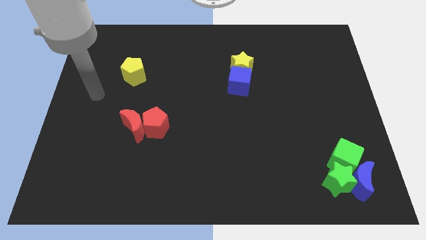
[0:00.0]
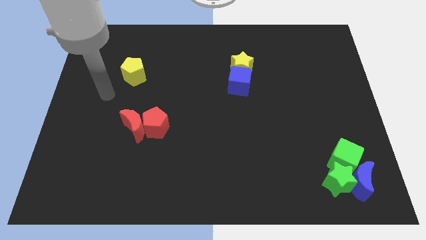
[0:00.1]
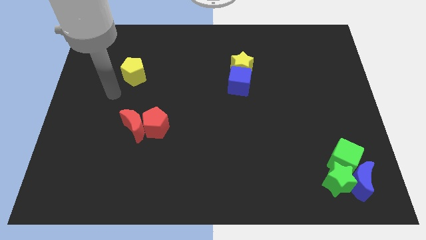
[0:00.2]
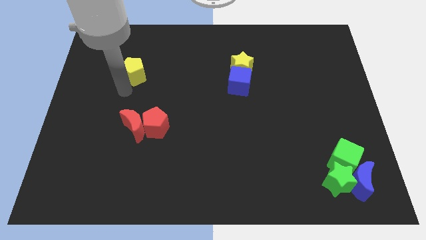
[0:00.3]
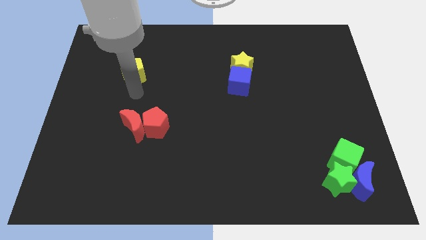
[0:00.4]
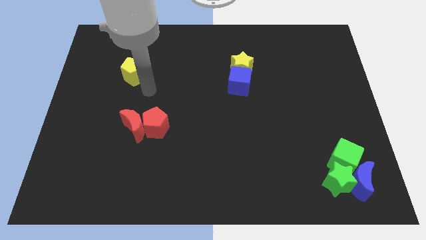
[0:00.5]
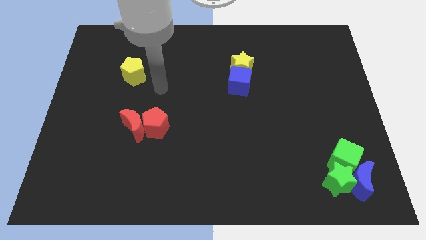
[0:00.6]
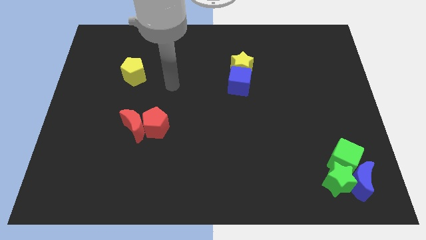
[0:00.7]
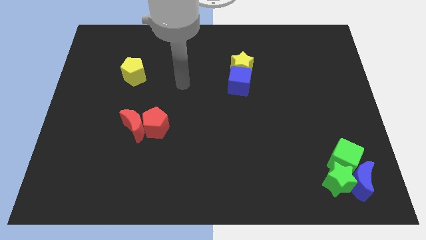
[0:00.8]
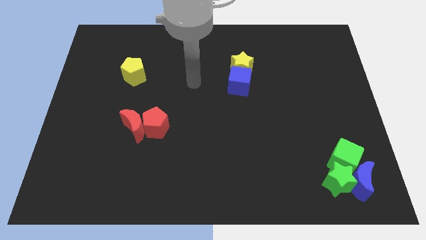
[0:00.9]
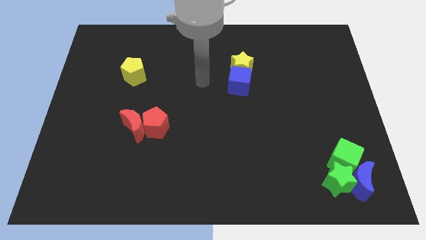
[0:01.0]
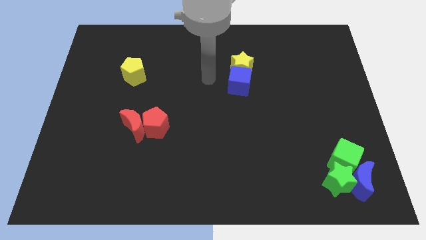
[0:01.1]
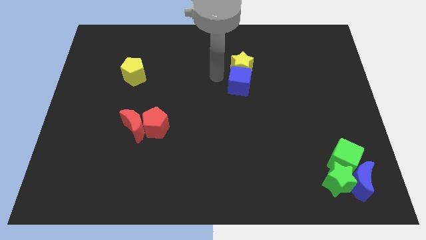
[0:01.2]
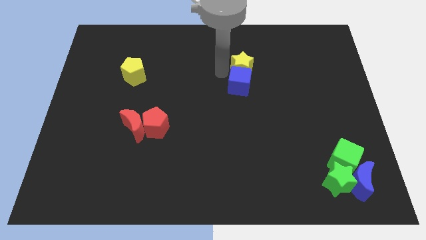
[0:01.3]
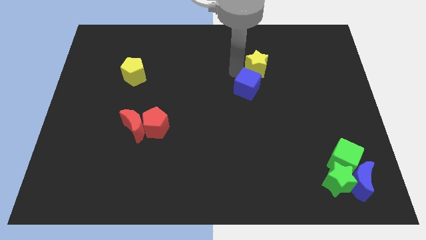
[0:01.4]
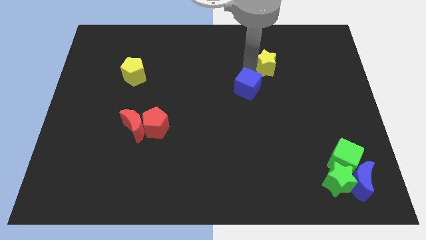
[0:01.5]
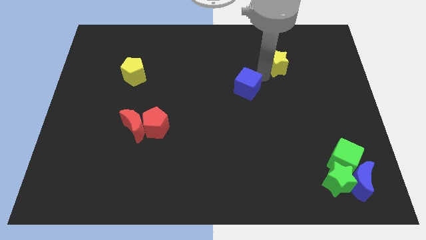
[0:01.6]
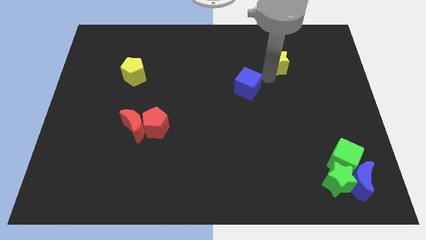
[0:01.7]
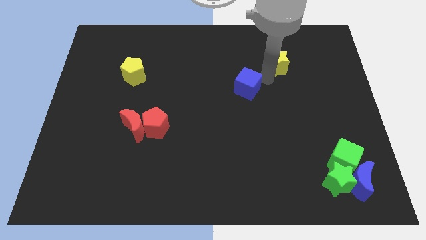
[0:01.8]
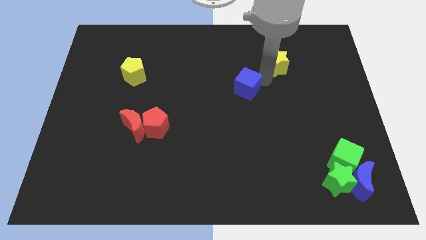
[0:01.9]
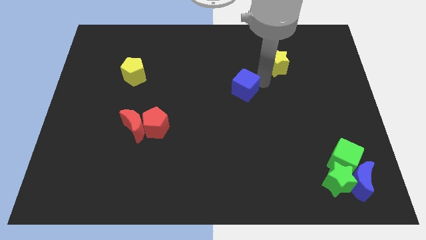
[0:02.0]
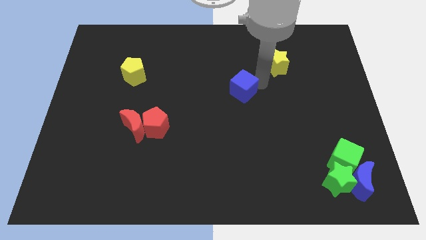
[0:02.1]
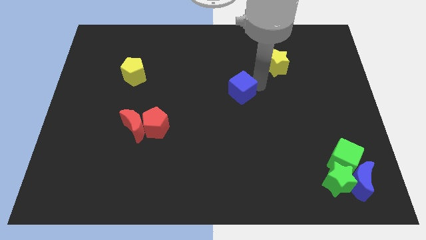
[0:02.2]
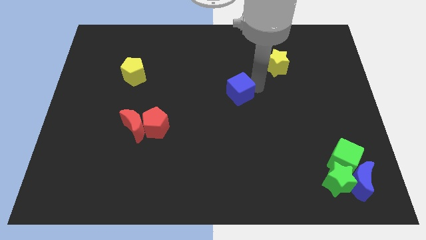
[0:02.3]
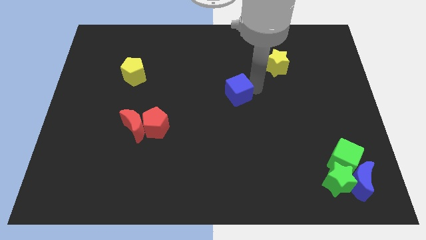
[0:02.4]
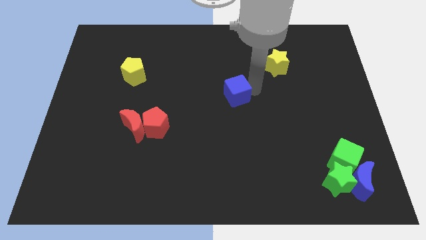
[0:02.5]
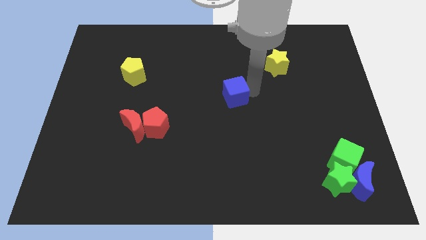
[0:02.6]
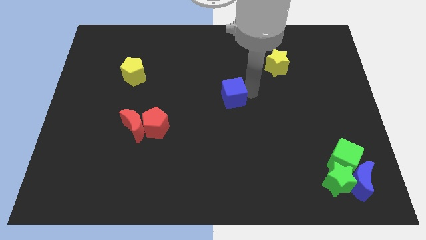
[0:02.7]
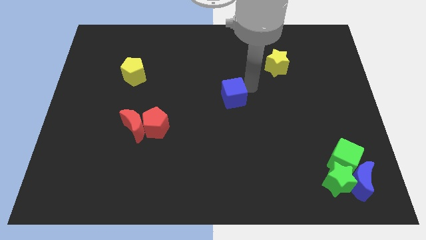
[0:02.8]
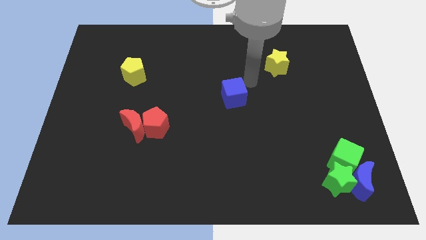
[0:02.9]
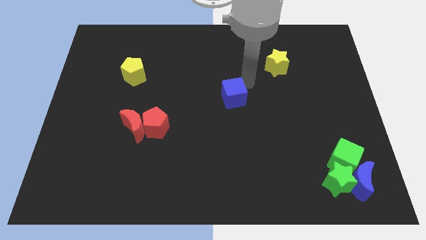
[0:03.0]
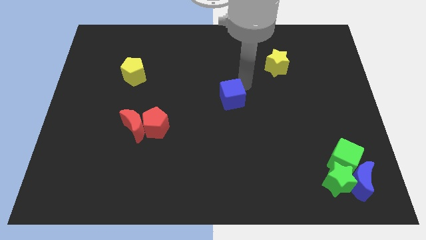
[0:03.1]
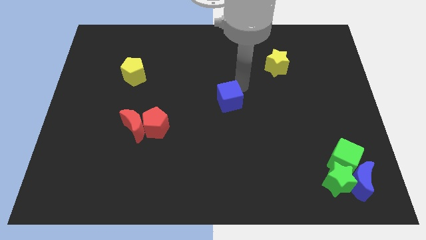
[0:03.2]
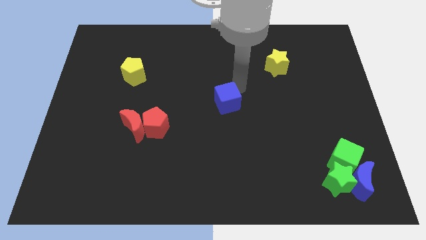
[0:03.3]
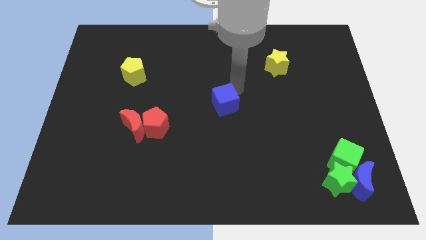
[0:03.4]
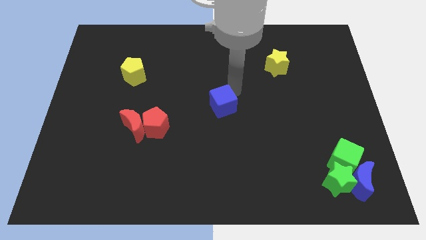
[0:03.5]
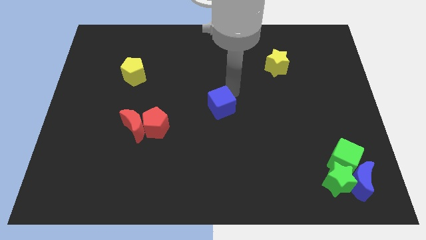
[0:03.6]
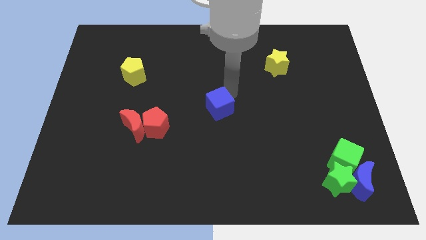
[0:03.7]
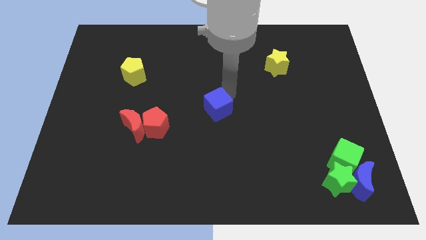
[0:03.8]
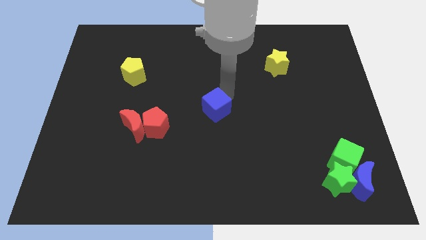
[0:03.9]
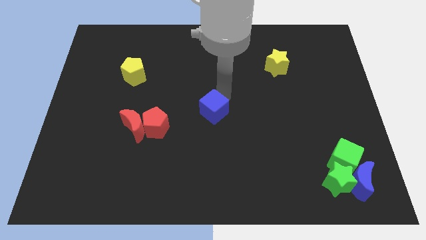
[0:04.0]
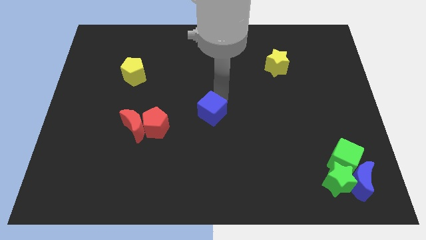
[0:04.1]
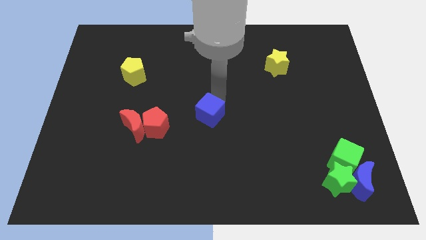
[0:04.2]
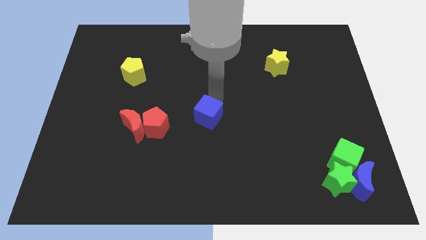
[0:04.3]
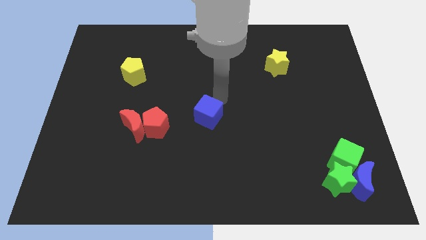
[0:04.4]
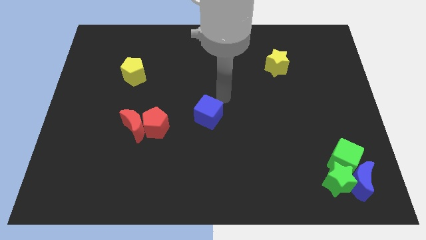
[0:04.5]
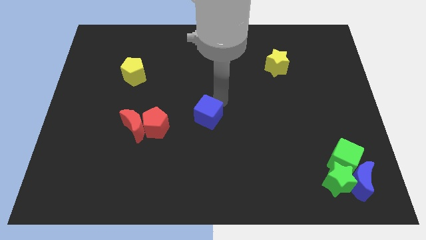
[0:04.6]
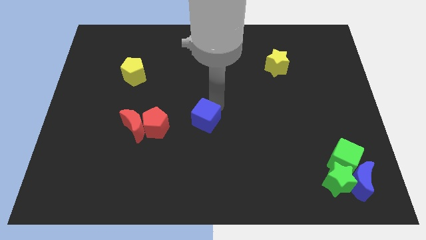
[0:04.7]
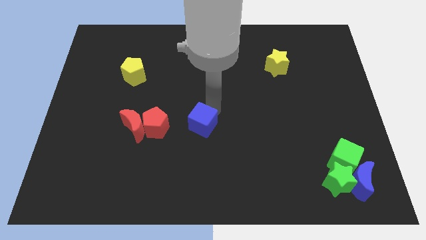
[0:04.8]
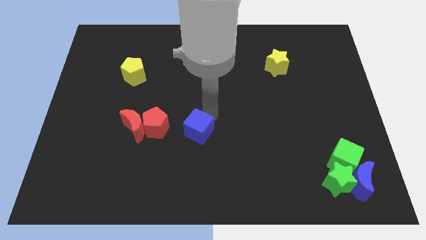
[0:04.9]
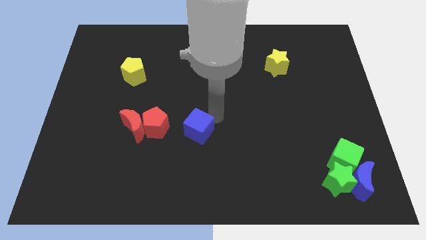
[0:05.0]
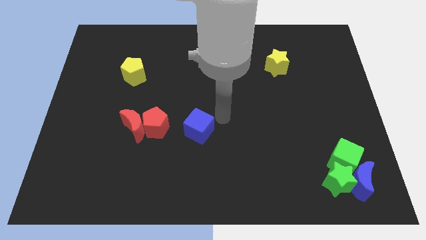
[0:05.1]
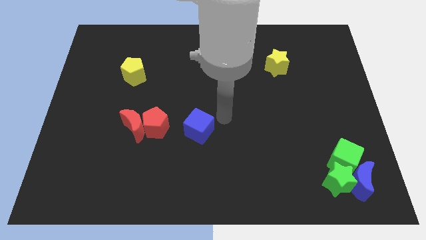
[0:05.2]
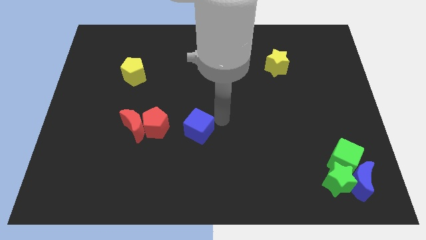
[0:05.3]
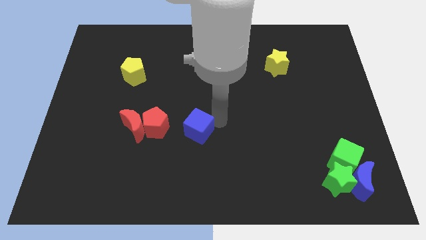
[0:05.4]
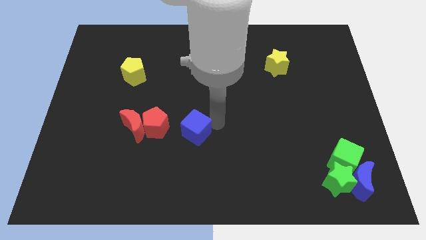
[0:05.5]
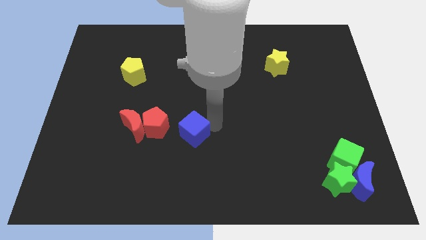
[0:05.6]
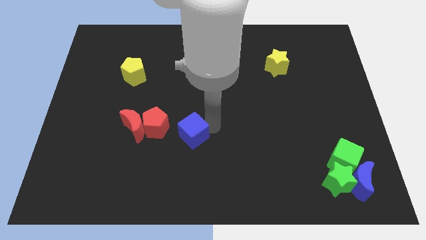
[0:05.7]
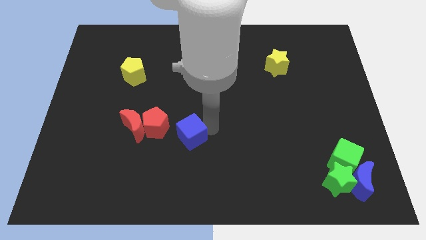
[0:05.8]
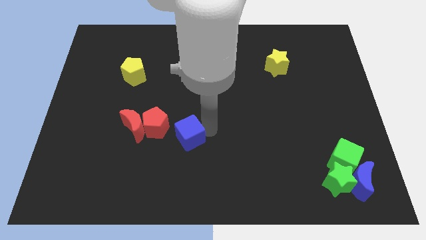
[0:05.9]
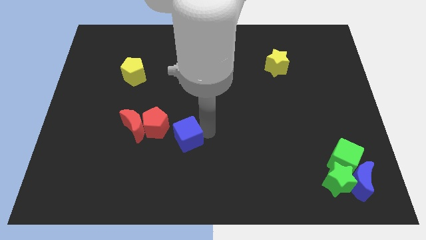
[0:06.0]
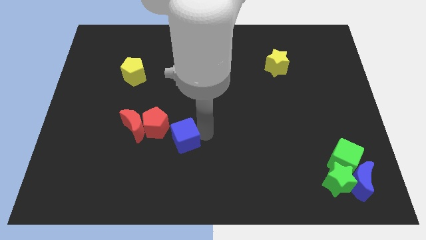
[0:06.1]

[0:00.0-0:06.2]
move the blue cube downwards and left diagonally

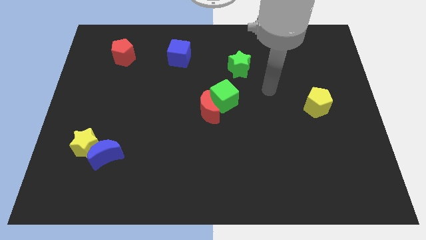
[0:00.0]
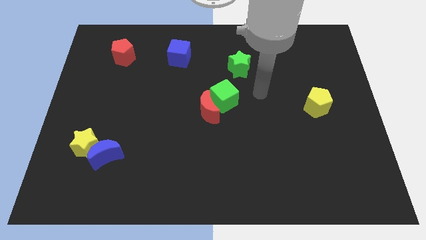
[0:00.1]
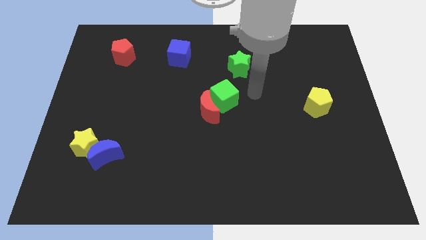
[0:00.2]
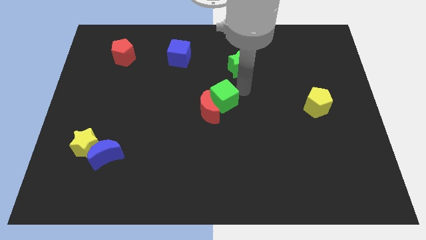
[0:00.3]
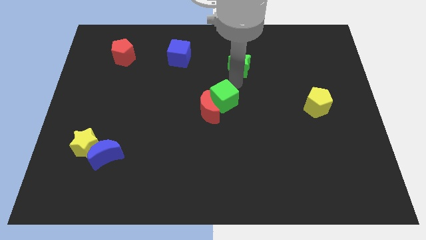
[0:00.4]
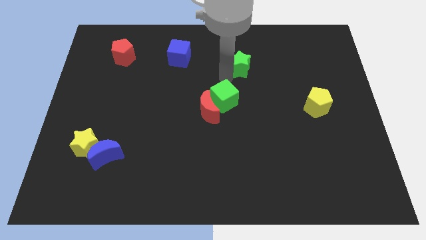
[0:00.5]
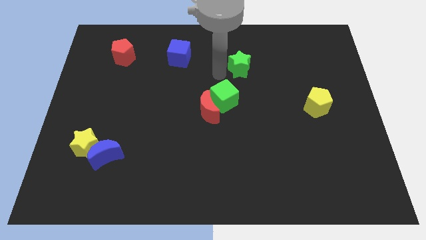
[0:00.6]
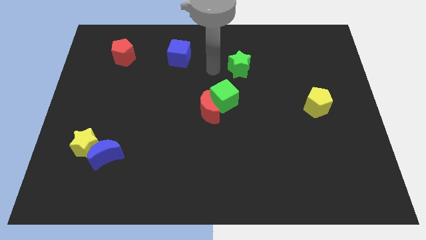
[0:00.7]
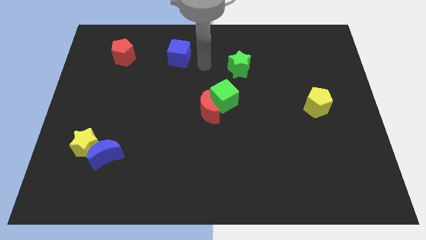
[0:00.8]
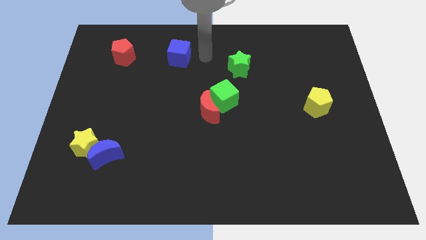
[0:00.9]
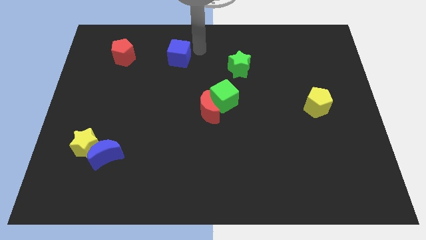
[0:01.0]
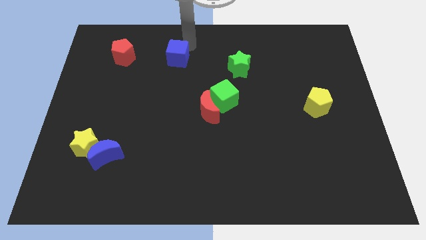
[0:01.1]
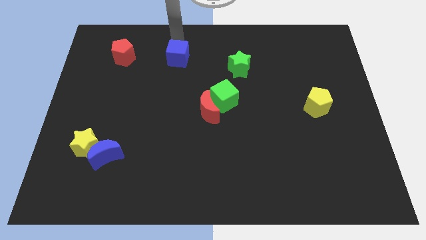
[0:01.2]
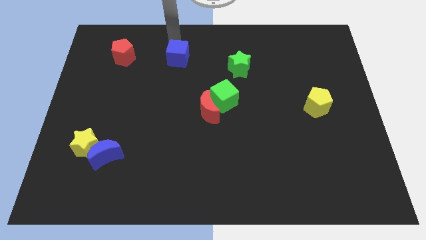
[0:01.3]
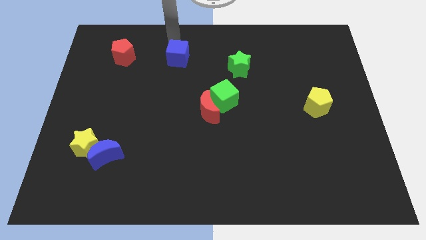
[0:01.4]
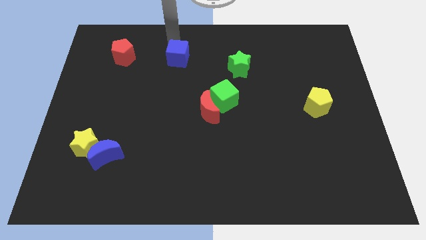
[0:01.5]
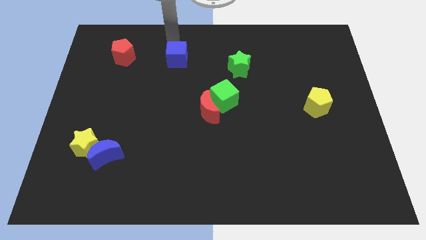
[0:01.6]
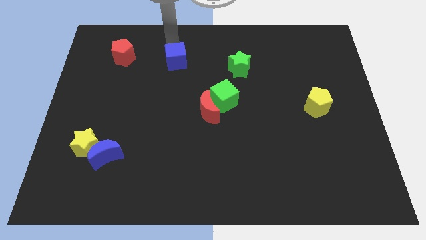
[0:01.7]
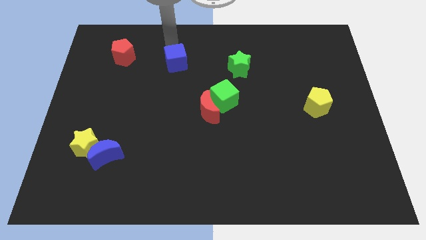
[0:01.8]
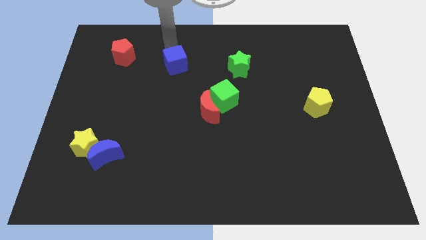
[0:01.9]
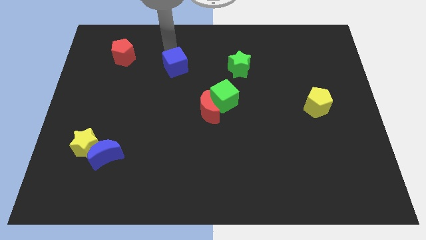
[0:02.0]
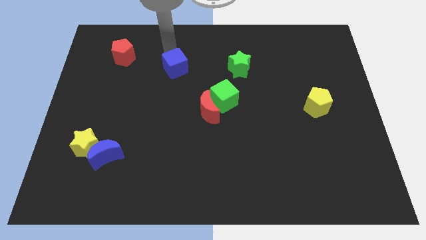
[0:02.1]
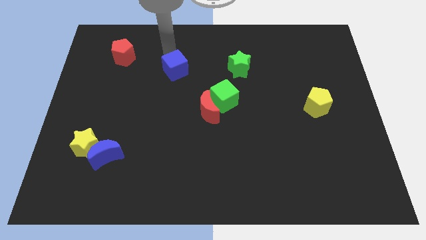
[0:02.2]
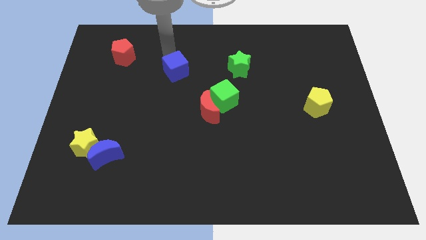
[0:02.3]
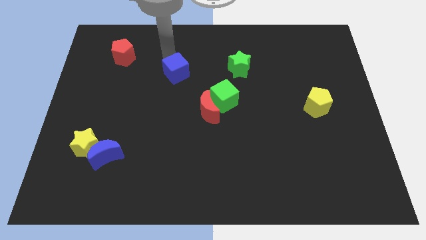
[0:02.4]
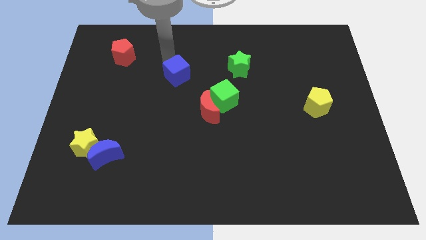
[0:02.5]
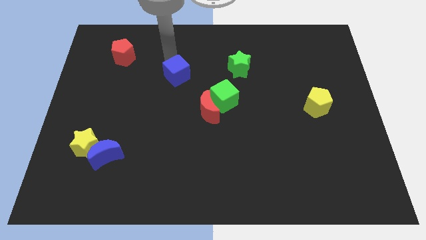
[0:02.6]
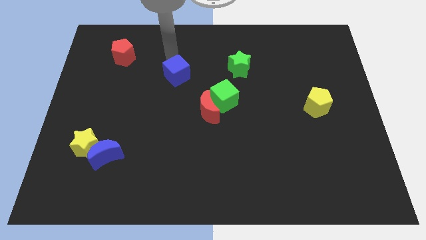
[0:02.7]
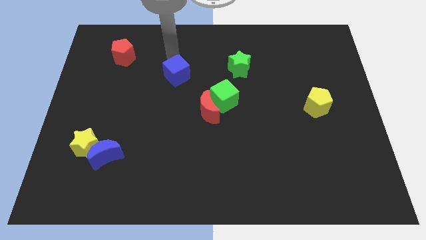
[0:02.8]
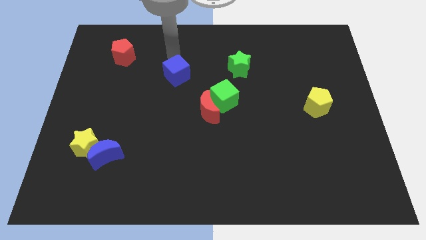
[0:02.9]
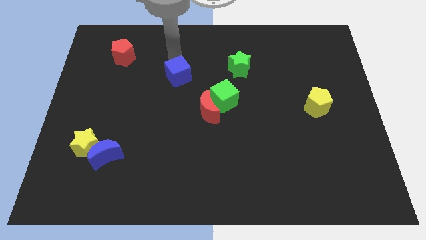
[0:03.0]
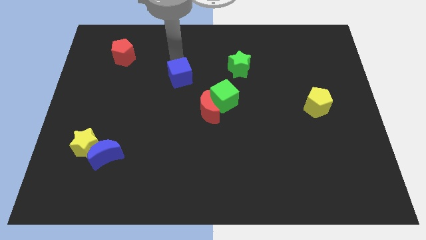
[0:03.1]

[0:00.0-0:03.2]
push the blue cube somewhat down
